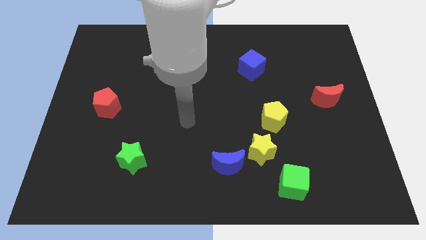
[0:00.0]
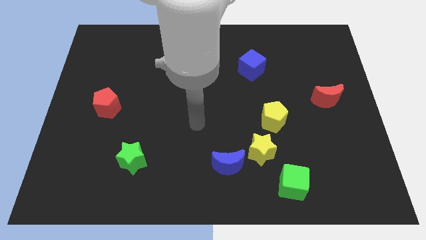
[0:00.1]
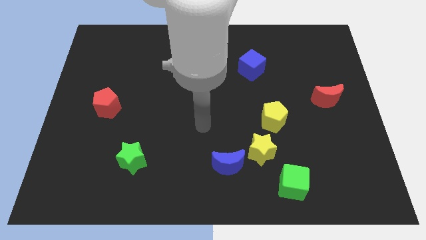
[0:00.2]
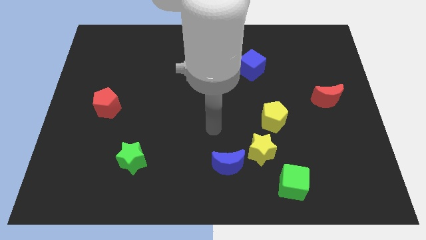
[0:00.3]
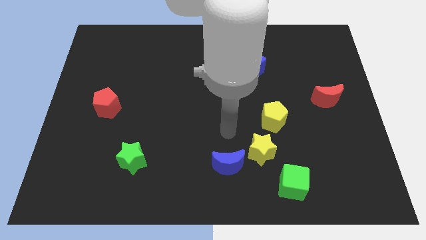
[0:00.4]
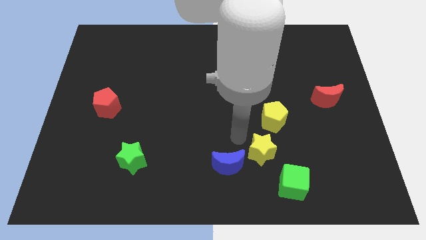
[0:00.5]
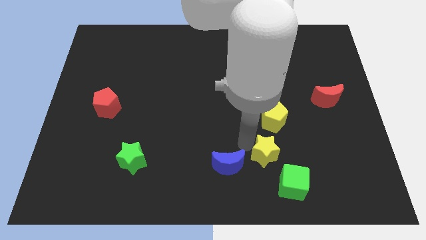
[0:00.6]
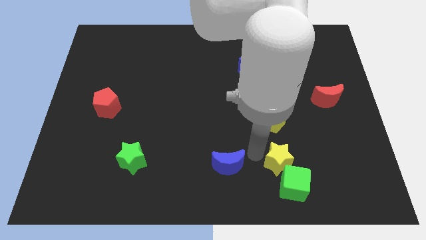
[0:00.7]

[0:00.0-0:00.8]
separate the blue moon from the yellow star

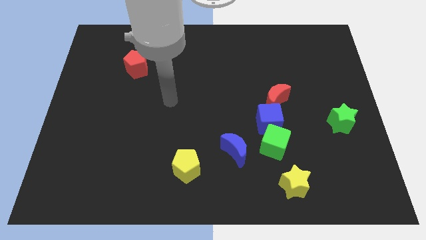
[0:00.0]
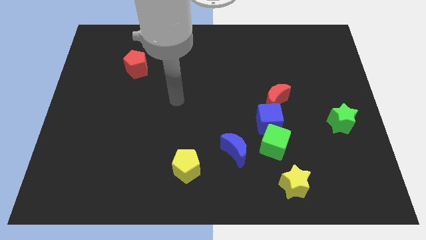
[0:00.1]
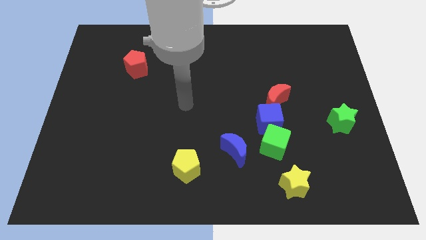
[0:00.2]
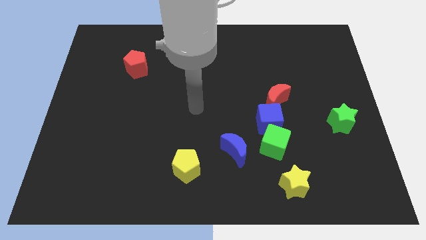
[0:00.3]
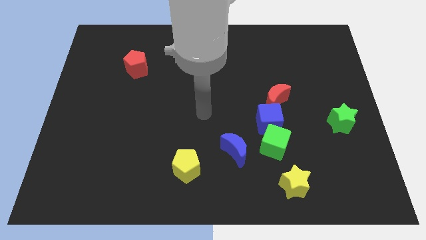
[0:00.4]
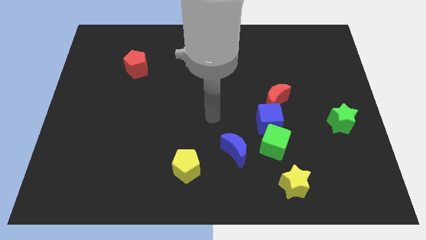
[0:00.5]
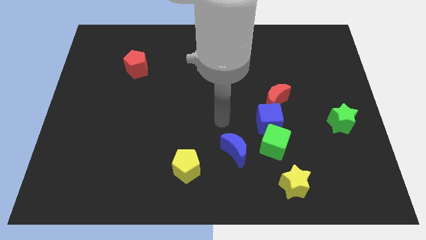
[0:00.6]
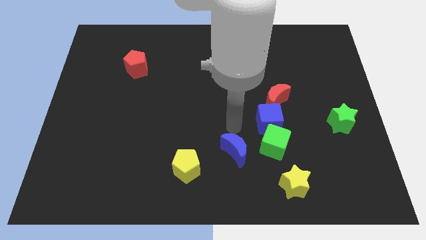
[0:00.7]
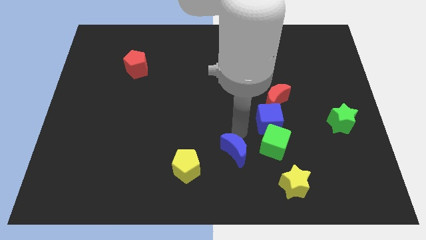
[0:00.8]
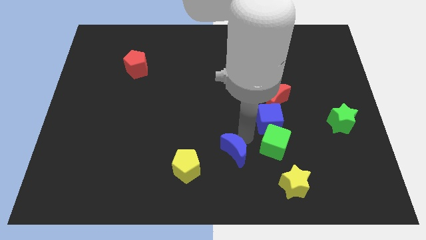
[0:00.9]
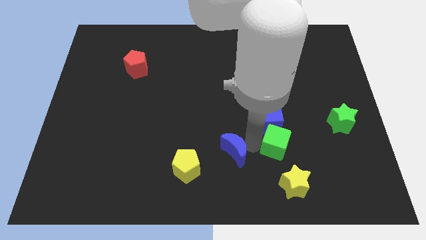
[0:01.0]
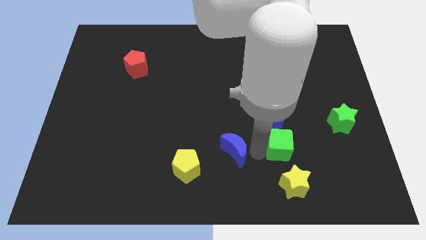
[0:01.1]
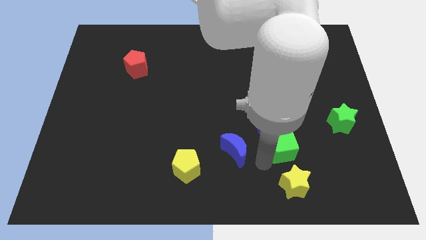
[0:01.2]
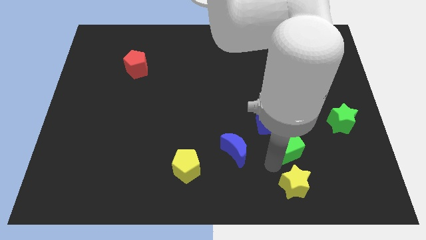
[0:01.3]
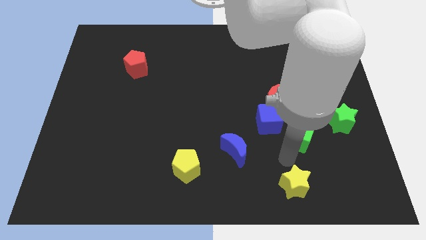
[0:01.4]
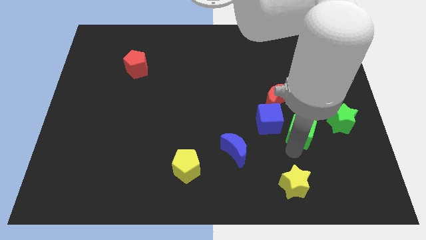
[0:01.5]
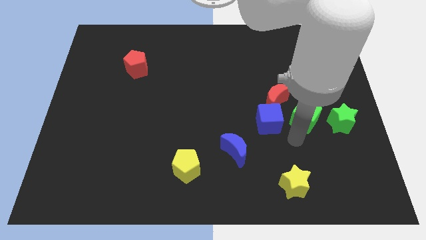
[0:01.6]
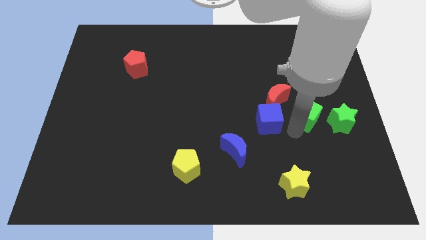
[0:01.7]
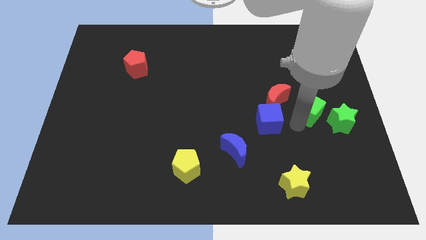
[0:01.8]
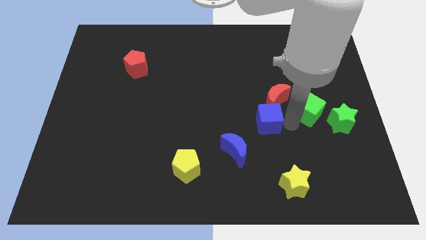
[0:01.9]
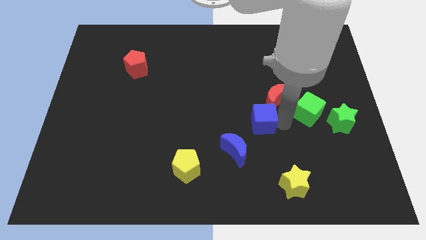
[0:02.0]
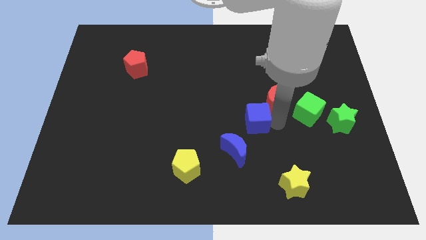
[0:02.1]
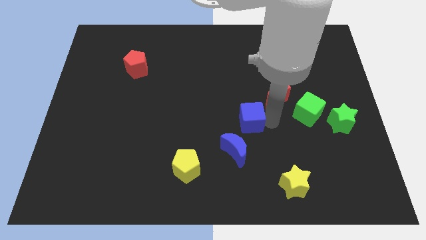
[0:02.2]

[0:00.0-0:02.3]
separate the blue cube from the green cube and red moon

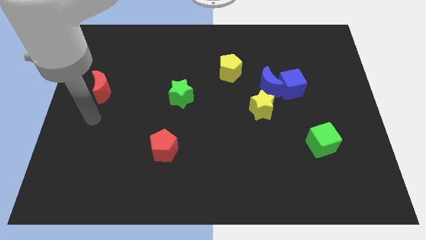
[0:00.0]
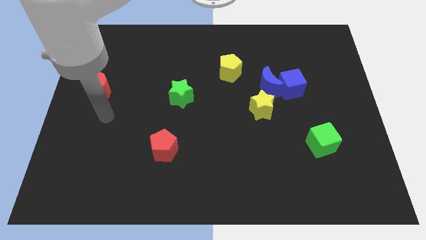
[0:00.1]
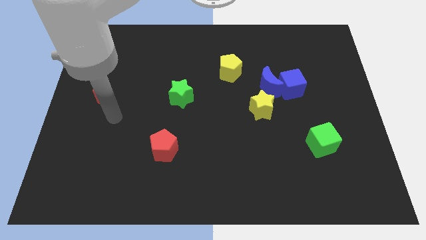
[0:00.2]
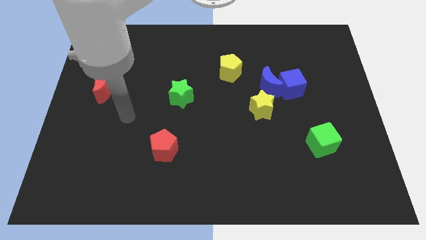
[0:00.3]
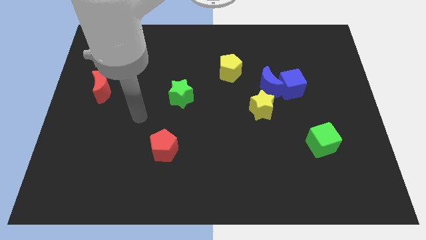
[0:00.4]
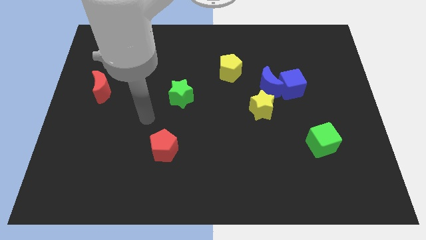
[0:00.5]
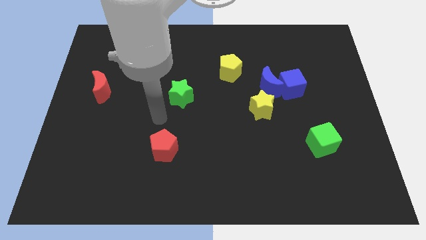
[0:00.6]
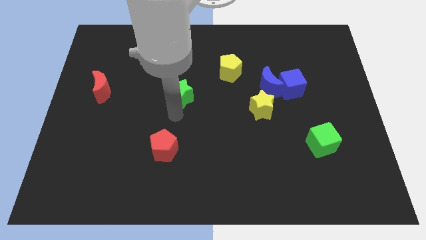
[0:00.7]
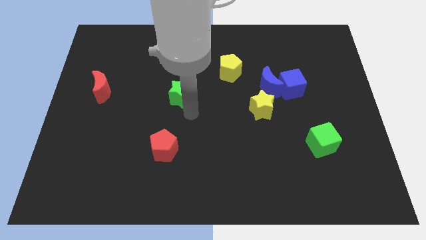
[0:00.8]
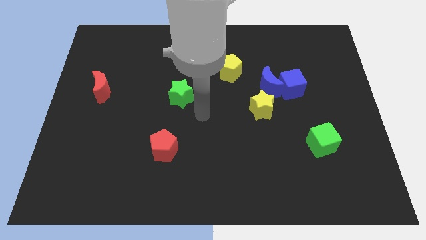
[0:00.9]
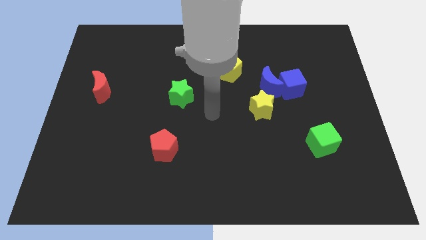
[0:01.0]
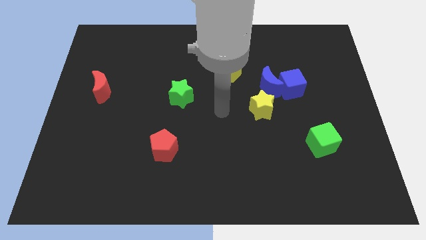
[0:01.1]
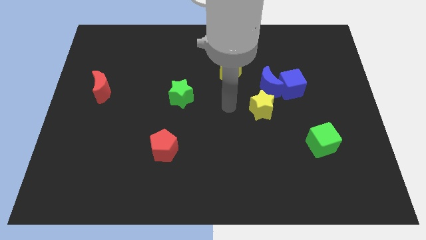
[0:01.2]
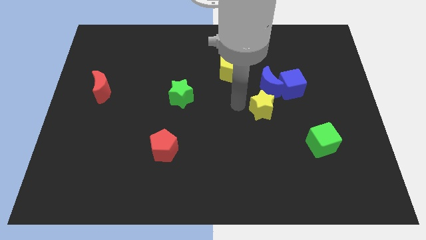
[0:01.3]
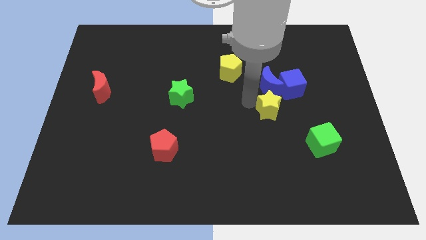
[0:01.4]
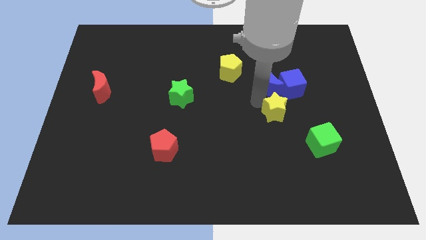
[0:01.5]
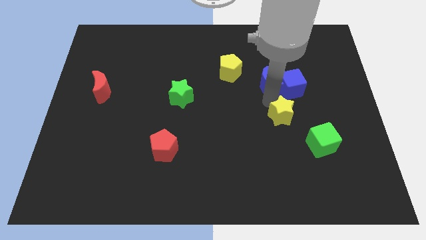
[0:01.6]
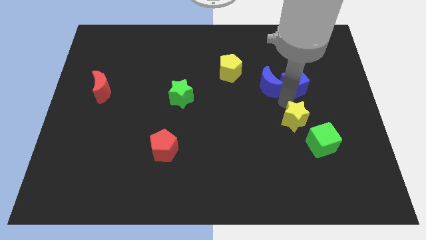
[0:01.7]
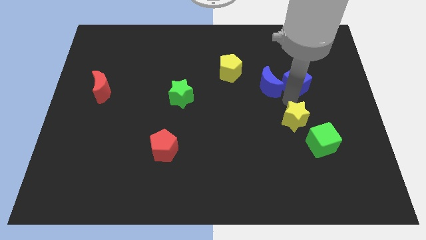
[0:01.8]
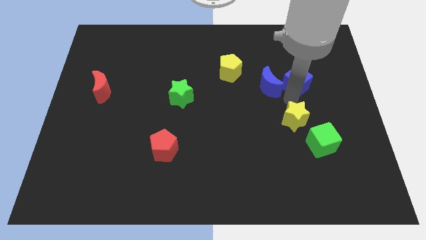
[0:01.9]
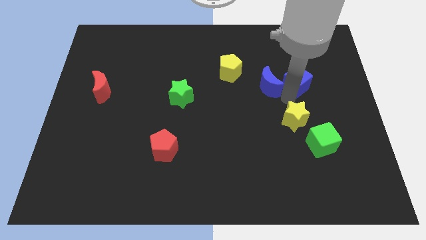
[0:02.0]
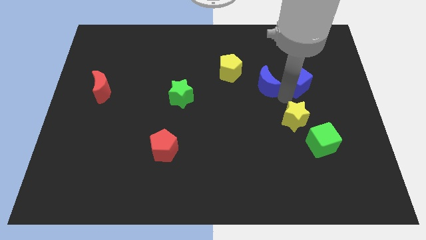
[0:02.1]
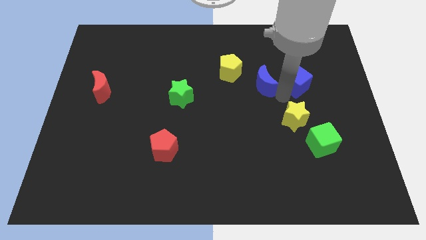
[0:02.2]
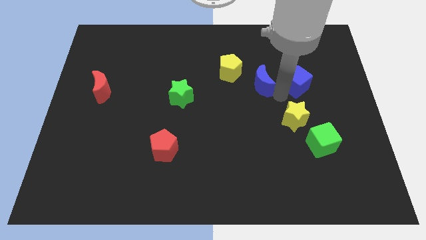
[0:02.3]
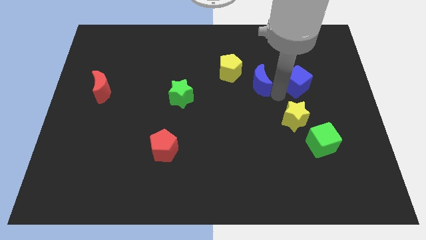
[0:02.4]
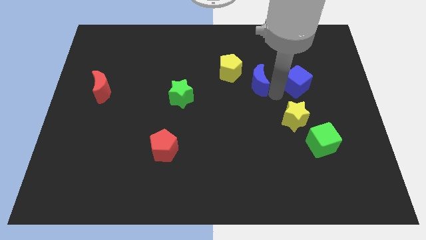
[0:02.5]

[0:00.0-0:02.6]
pull the blue moon apart from the blue cube and yellow star

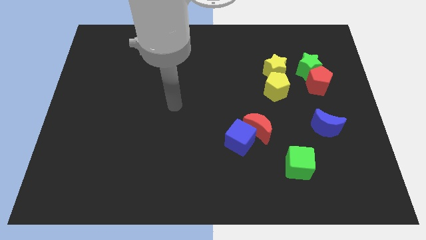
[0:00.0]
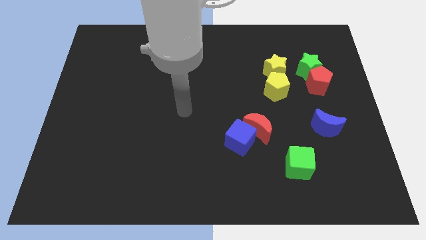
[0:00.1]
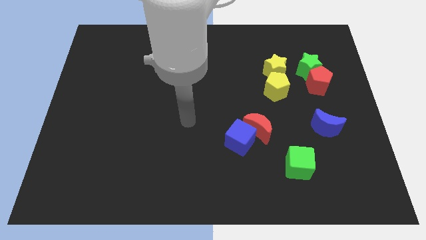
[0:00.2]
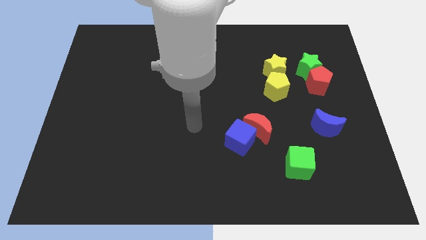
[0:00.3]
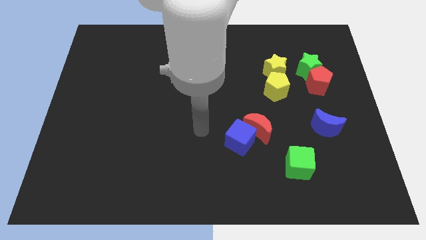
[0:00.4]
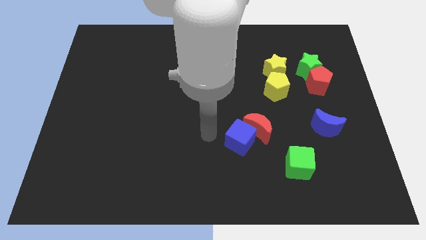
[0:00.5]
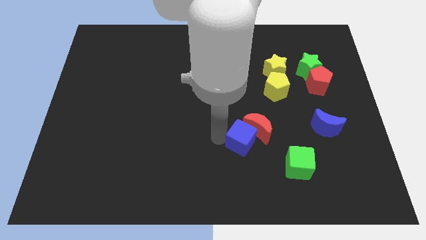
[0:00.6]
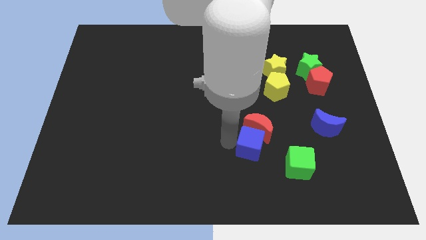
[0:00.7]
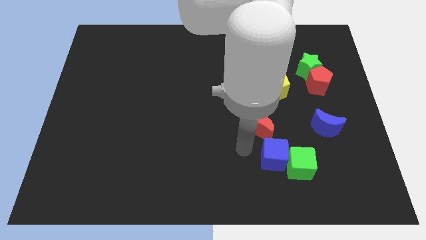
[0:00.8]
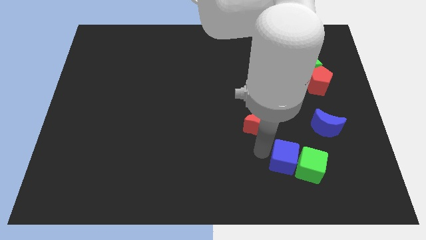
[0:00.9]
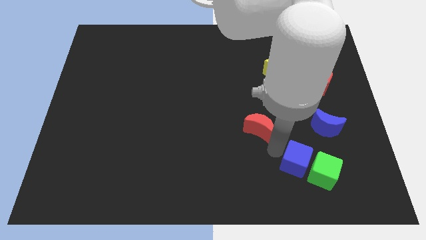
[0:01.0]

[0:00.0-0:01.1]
separate the red moon from the blue cube

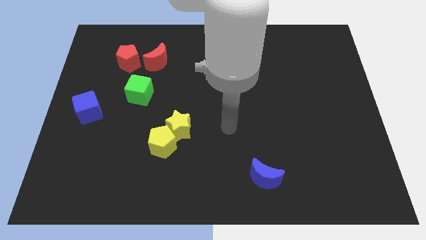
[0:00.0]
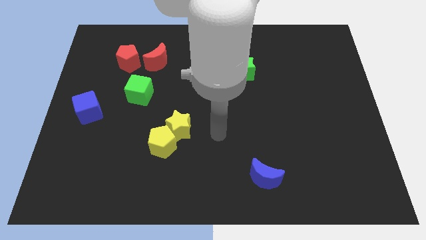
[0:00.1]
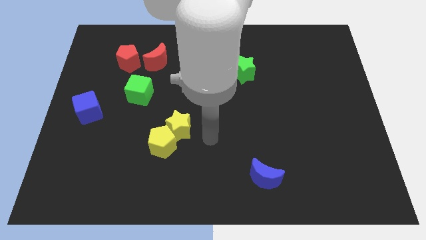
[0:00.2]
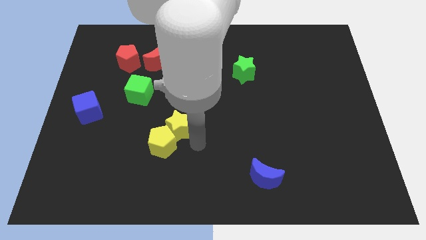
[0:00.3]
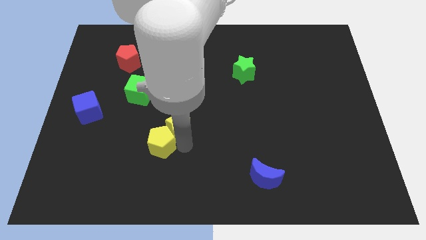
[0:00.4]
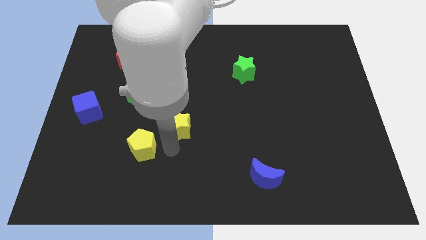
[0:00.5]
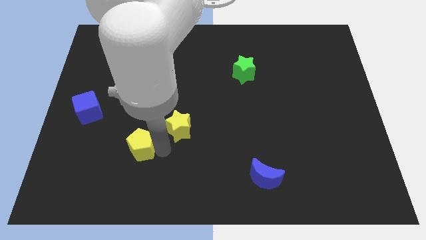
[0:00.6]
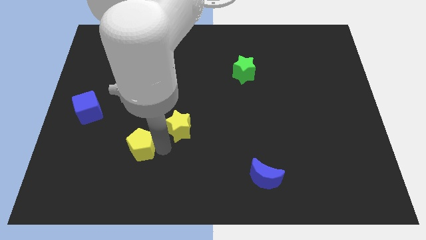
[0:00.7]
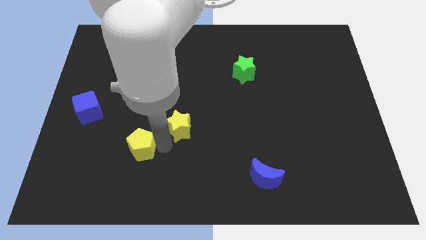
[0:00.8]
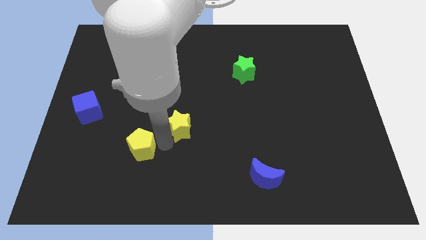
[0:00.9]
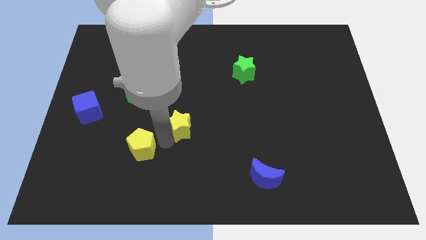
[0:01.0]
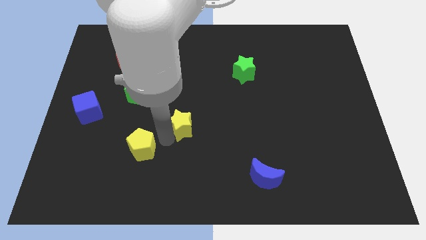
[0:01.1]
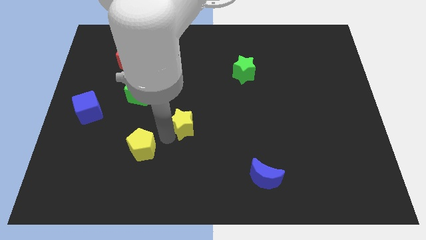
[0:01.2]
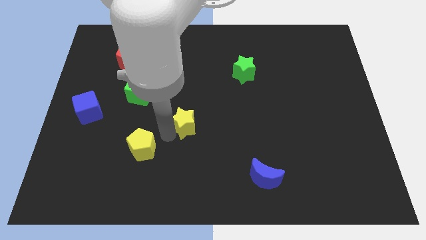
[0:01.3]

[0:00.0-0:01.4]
move the yellow star away from the yellow pentagon

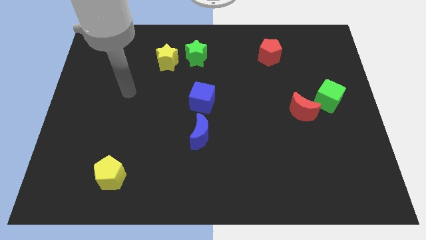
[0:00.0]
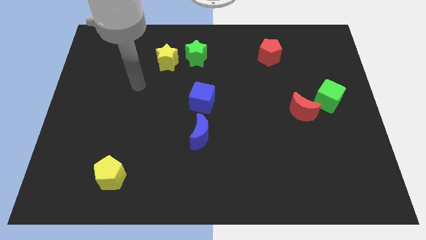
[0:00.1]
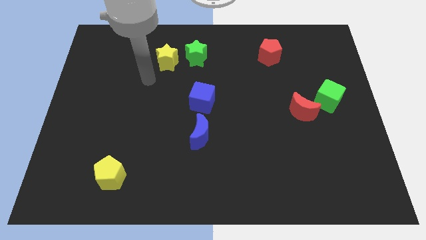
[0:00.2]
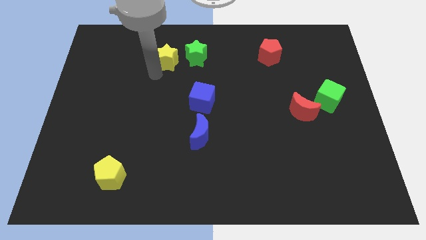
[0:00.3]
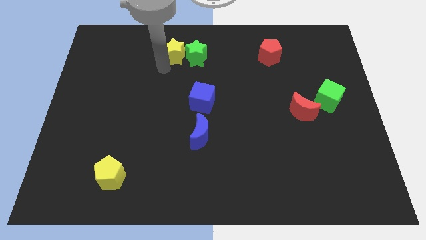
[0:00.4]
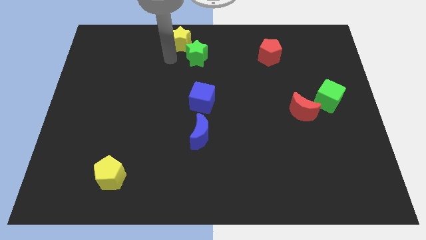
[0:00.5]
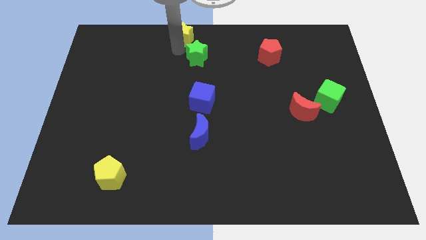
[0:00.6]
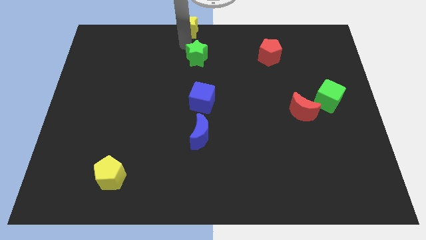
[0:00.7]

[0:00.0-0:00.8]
pull the green star apart from the yellow star

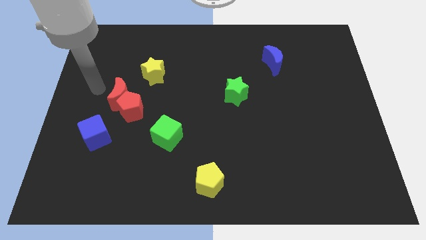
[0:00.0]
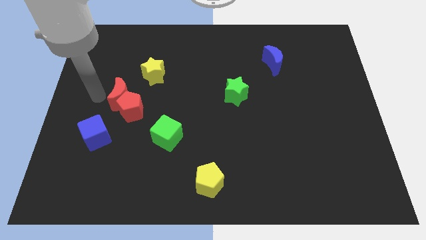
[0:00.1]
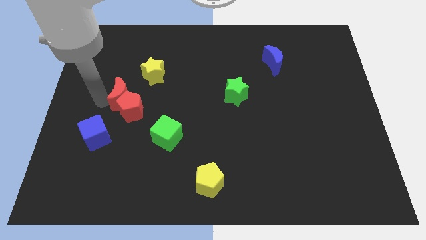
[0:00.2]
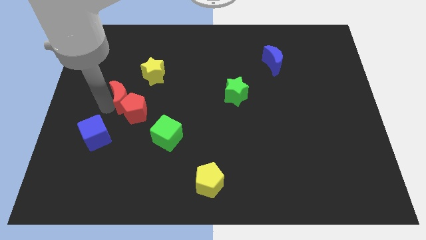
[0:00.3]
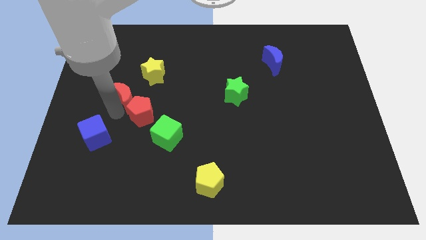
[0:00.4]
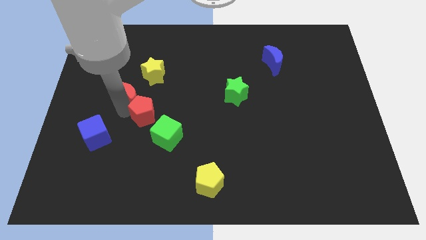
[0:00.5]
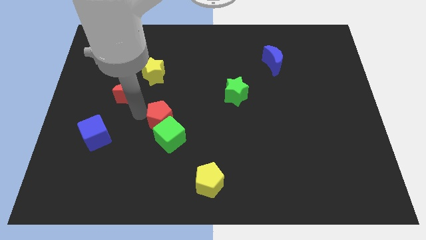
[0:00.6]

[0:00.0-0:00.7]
move the red moon away from the red pentagon
